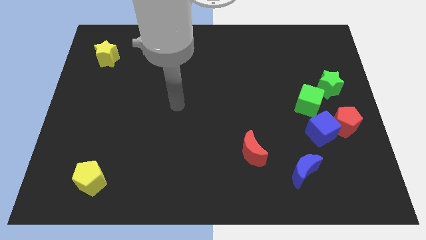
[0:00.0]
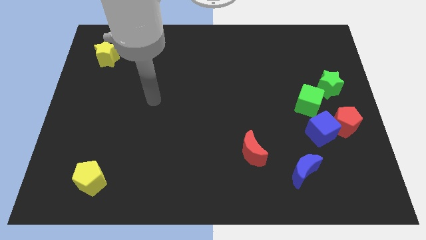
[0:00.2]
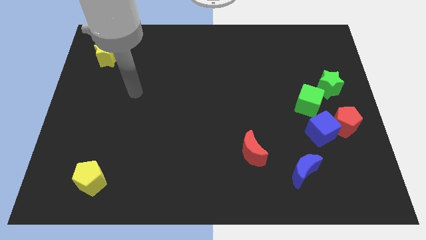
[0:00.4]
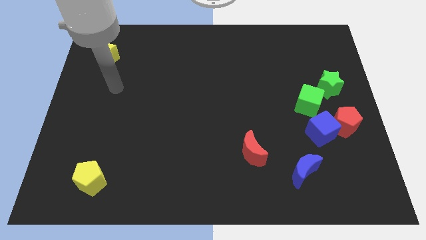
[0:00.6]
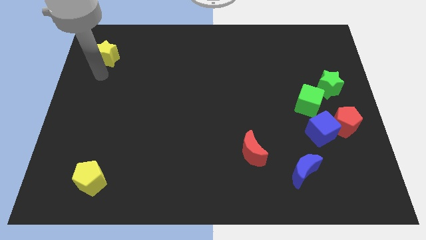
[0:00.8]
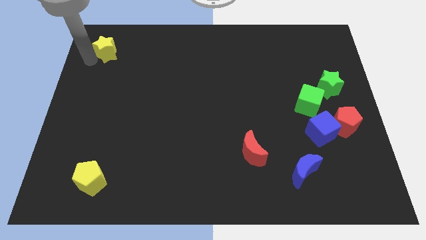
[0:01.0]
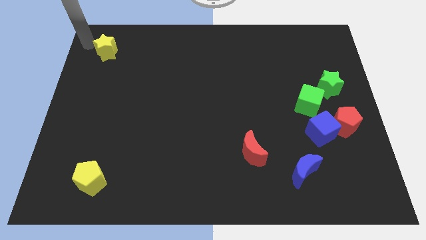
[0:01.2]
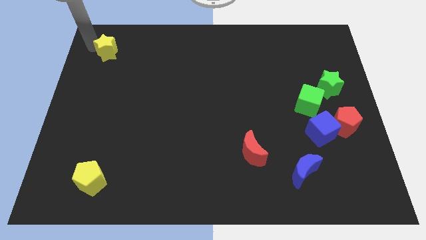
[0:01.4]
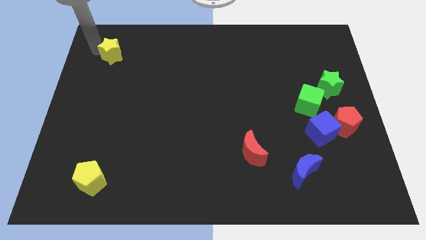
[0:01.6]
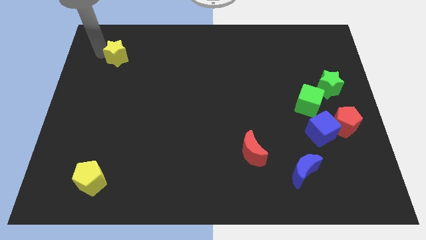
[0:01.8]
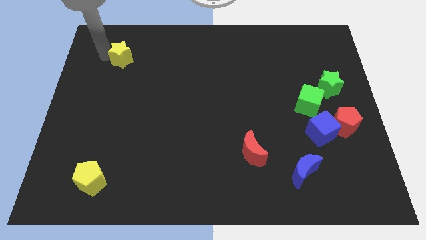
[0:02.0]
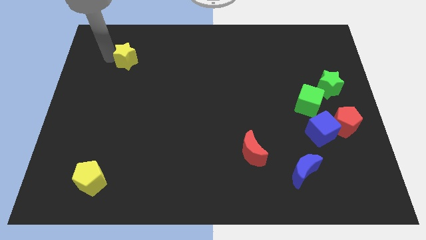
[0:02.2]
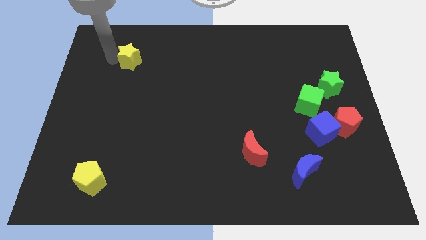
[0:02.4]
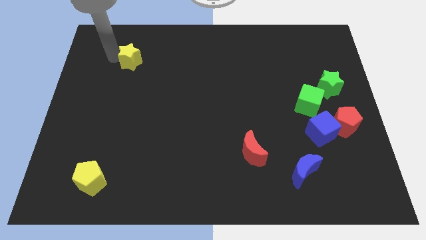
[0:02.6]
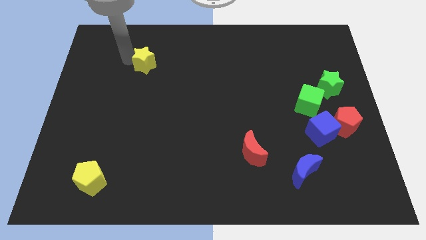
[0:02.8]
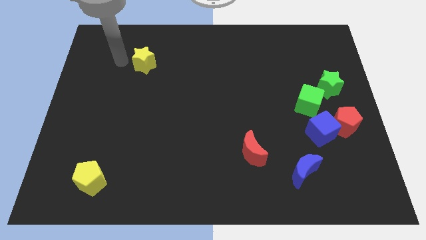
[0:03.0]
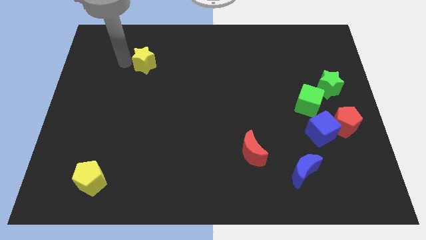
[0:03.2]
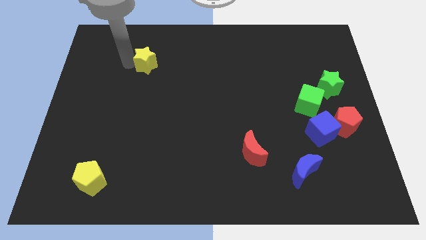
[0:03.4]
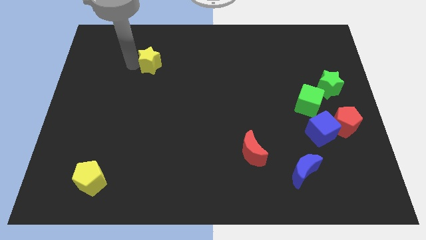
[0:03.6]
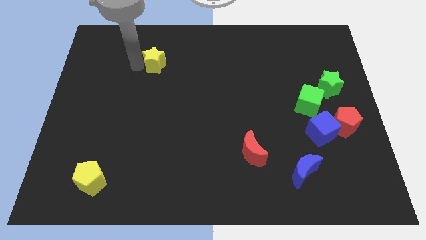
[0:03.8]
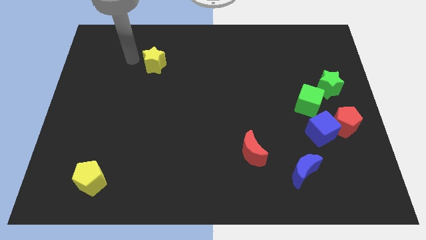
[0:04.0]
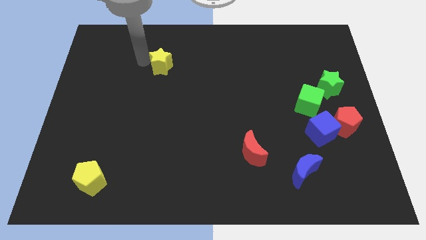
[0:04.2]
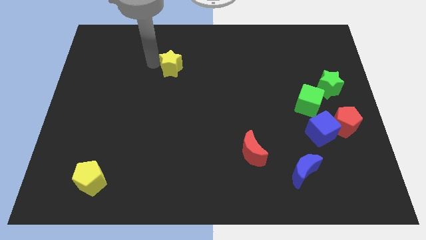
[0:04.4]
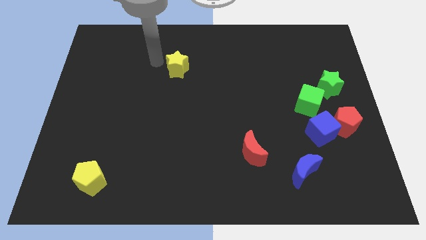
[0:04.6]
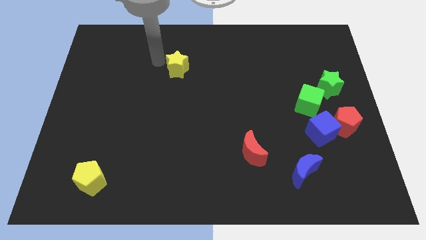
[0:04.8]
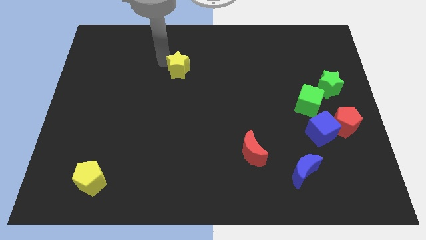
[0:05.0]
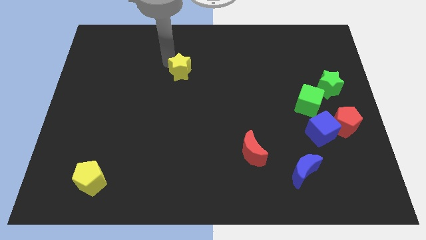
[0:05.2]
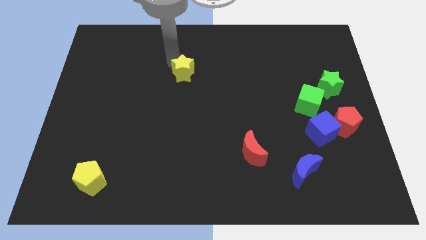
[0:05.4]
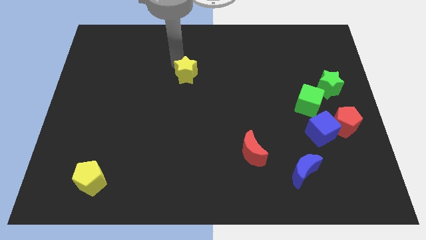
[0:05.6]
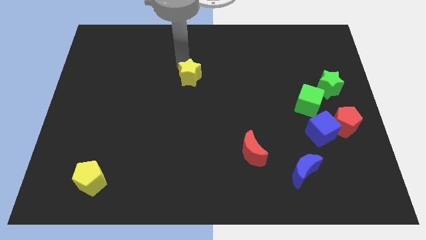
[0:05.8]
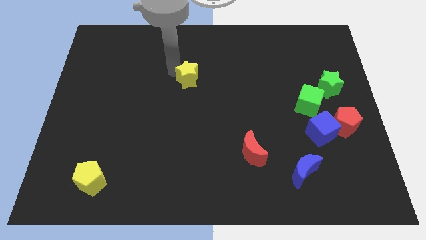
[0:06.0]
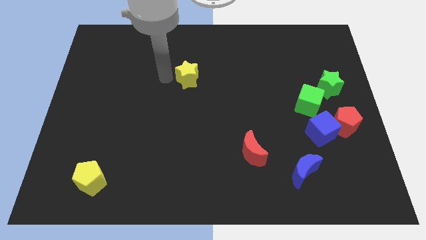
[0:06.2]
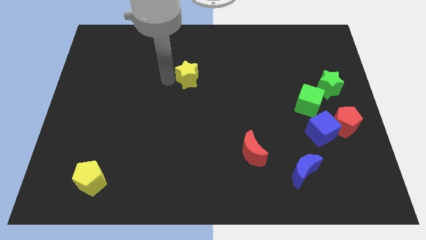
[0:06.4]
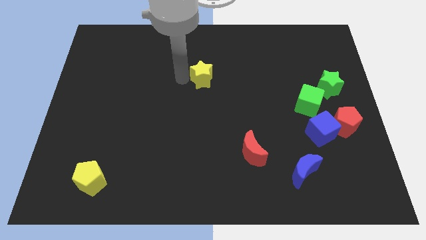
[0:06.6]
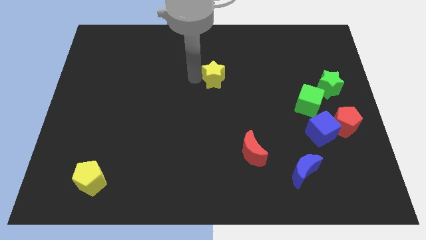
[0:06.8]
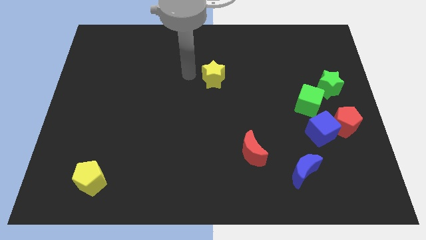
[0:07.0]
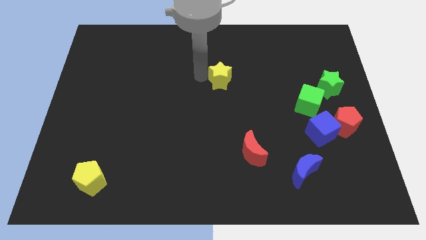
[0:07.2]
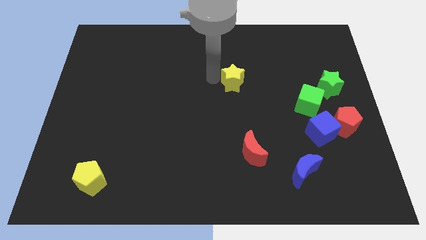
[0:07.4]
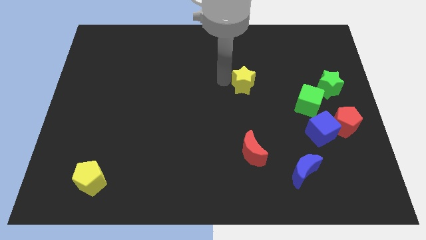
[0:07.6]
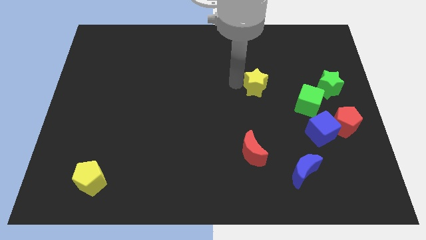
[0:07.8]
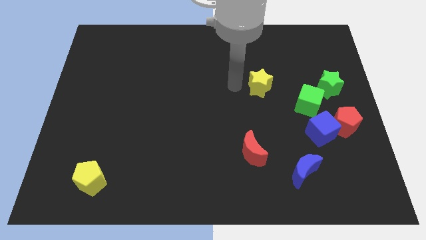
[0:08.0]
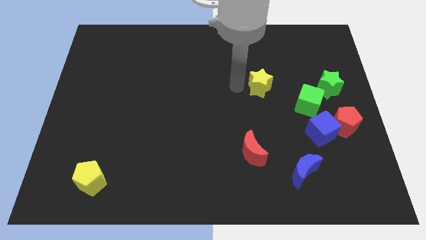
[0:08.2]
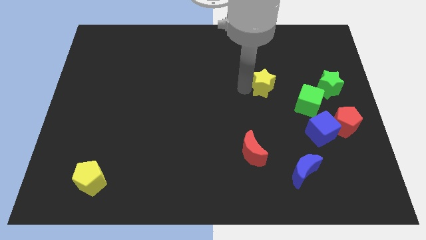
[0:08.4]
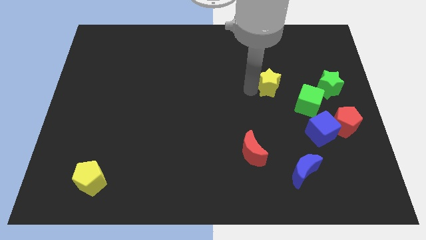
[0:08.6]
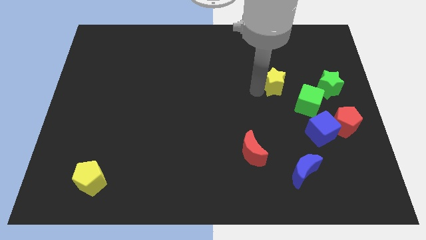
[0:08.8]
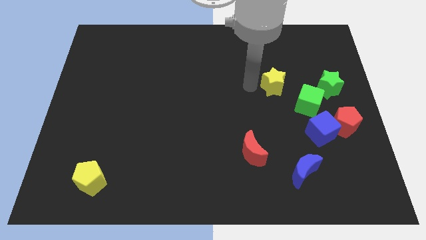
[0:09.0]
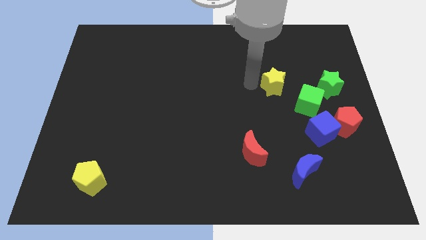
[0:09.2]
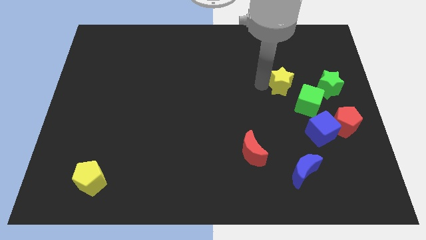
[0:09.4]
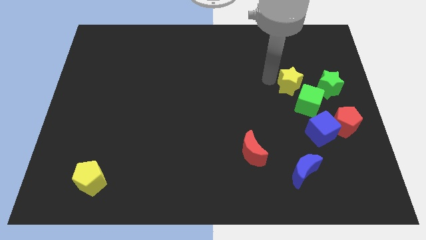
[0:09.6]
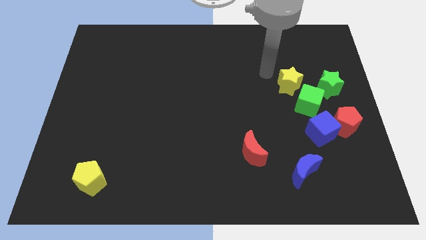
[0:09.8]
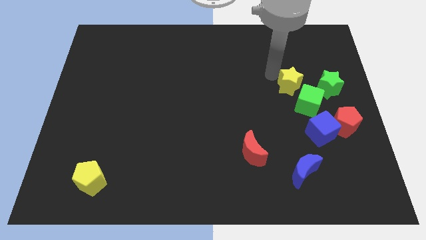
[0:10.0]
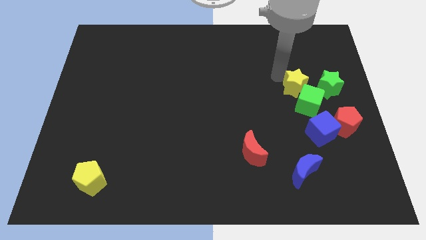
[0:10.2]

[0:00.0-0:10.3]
move the yellow star to the top side of the blue cube

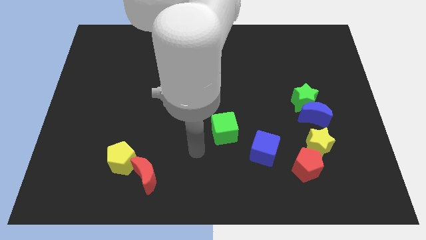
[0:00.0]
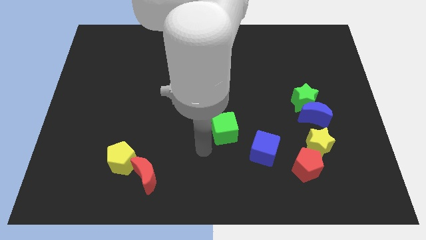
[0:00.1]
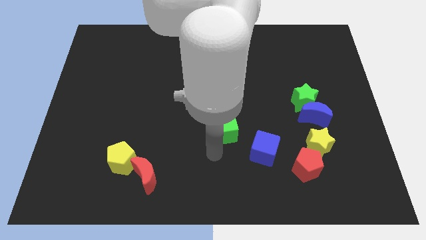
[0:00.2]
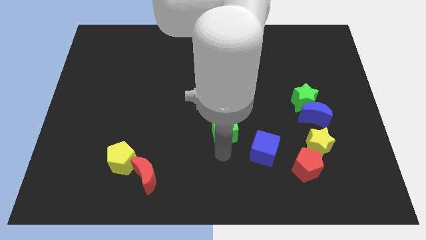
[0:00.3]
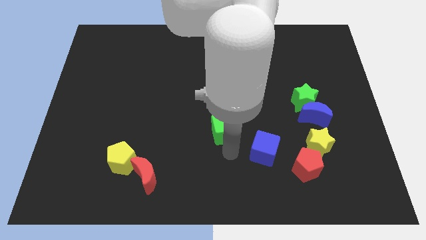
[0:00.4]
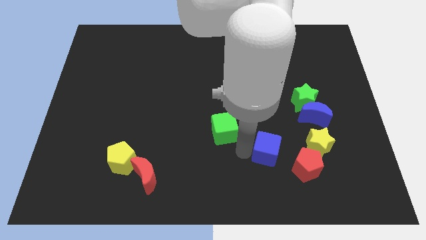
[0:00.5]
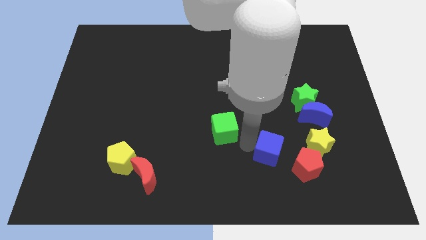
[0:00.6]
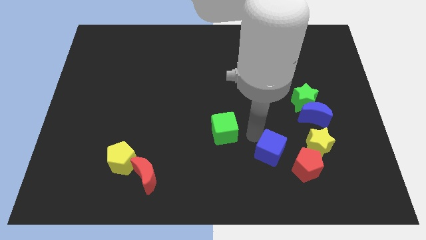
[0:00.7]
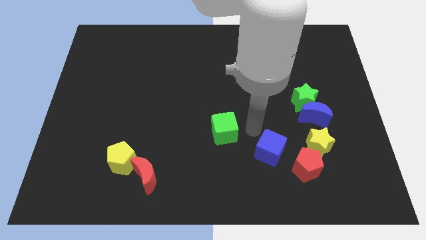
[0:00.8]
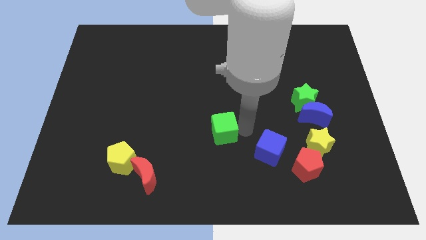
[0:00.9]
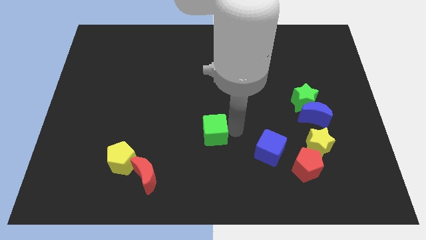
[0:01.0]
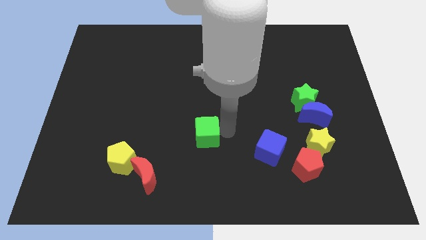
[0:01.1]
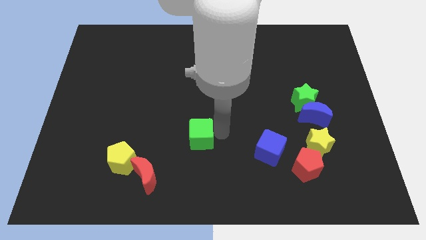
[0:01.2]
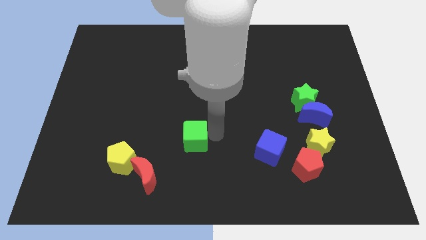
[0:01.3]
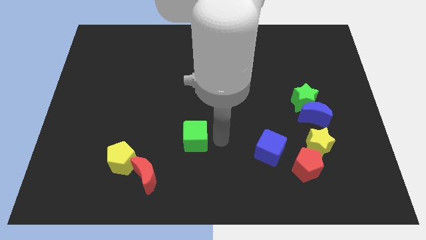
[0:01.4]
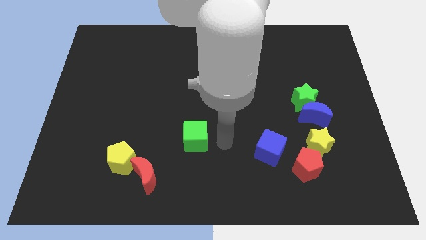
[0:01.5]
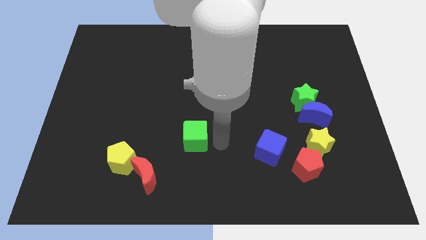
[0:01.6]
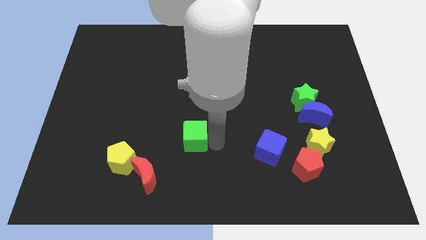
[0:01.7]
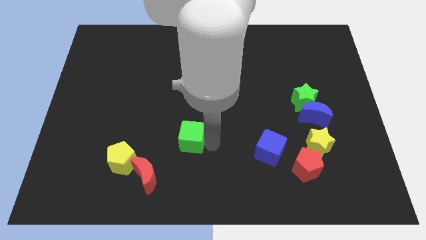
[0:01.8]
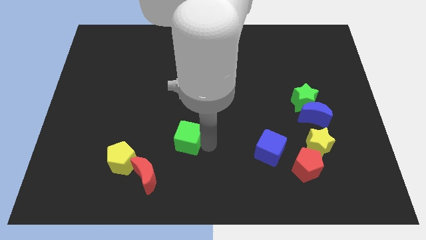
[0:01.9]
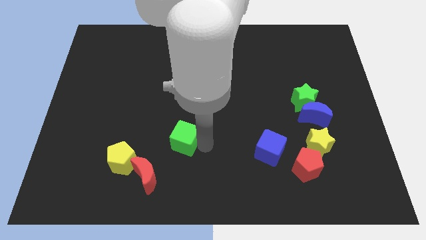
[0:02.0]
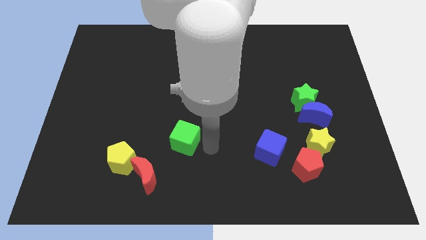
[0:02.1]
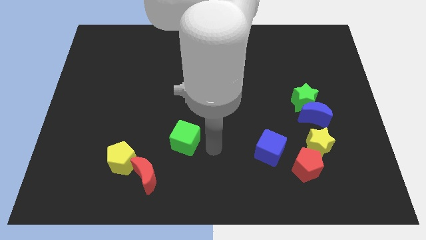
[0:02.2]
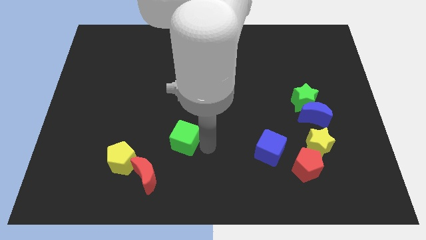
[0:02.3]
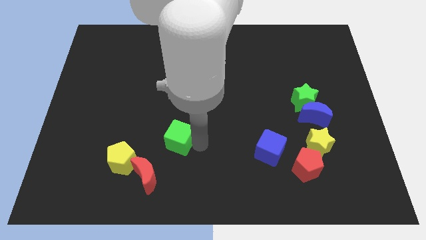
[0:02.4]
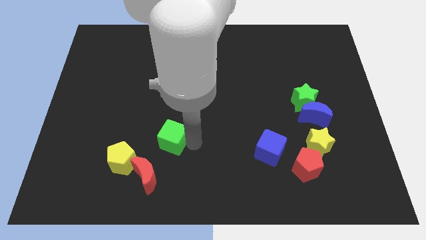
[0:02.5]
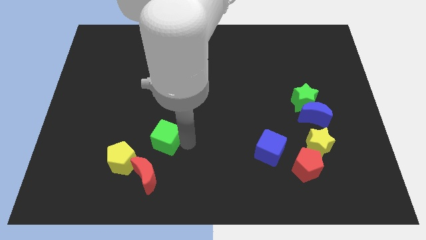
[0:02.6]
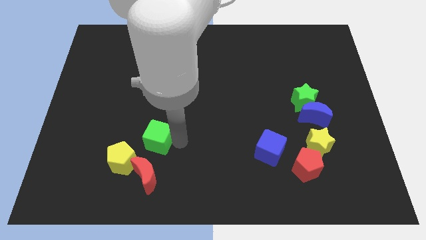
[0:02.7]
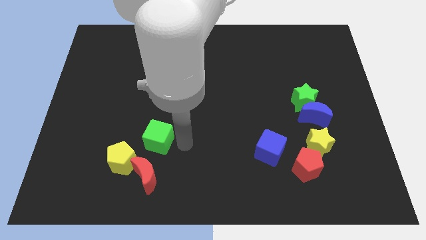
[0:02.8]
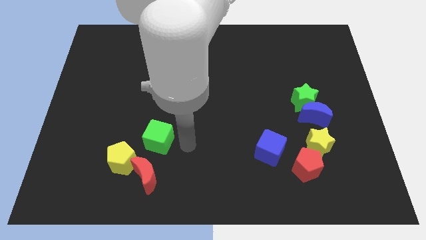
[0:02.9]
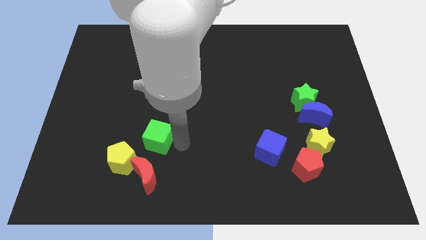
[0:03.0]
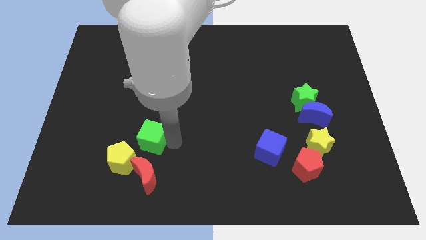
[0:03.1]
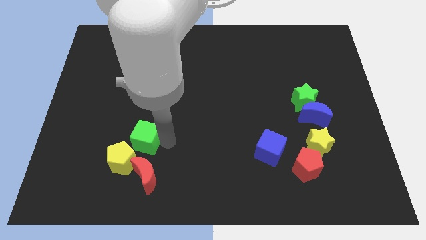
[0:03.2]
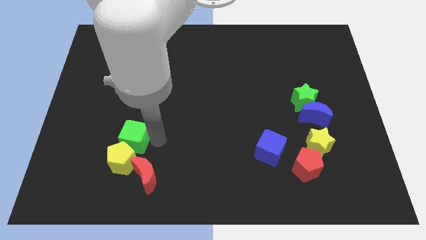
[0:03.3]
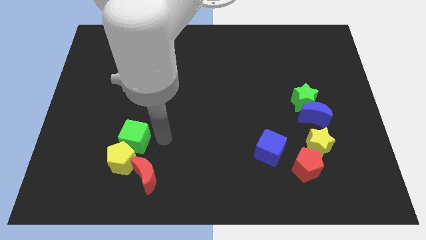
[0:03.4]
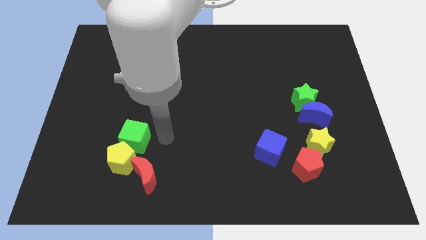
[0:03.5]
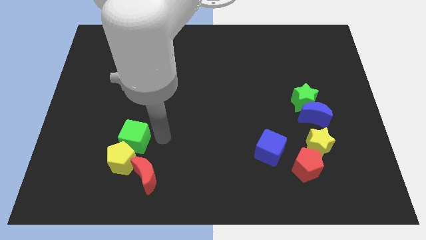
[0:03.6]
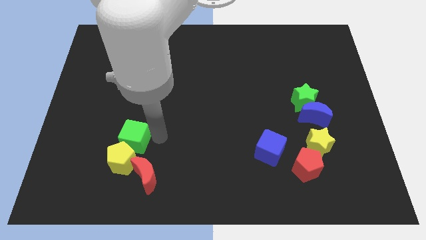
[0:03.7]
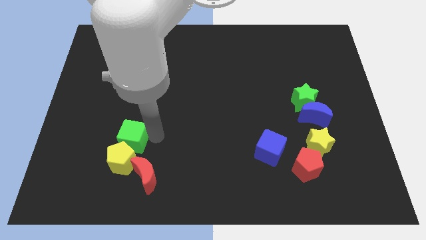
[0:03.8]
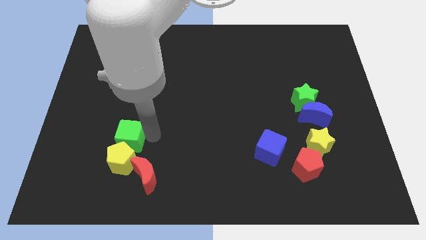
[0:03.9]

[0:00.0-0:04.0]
put the green cube to the top left side of the yellow pentagon
